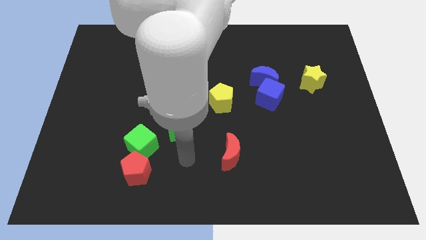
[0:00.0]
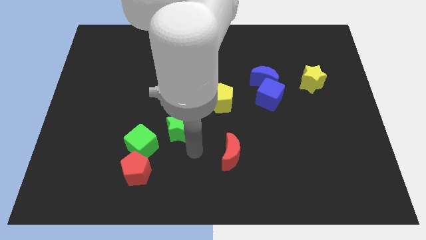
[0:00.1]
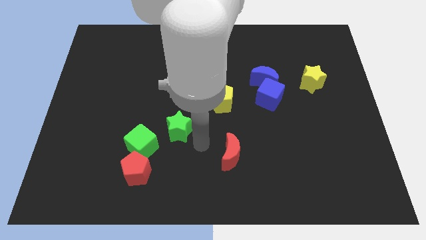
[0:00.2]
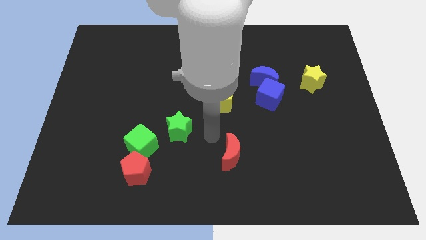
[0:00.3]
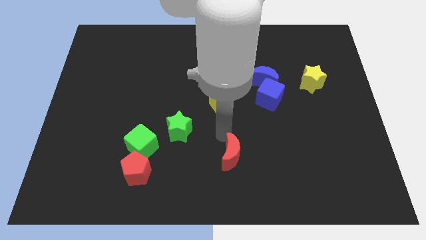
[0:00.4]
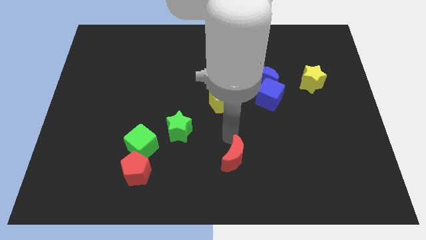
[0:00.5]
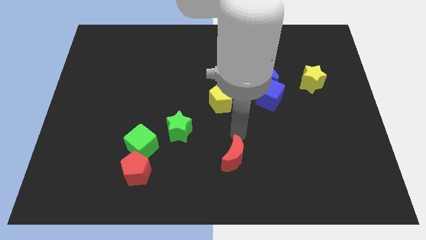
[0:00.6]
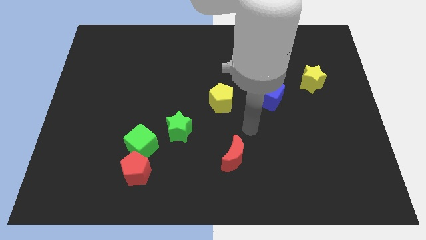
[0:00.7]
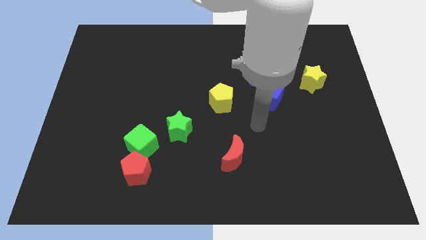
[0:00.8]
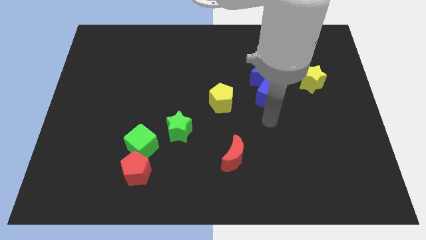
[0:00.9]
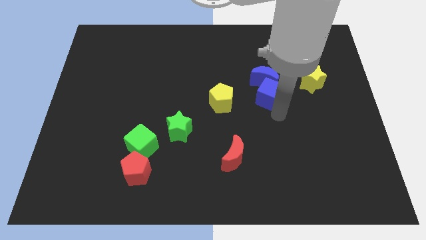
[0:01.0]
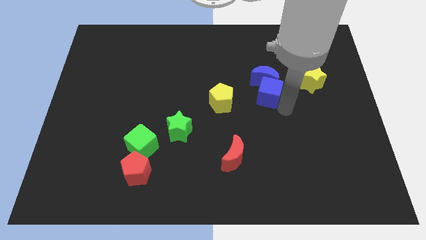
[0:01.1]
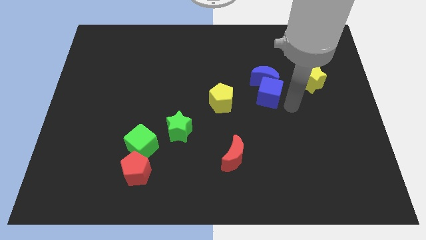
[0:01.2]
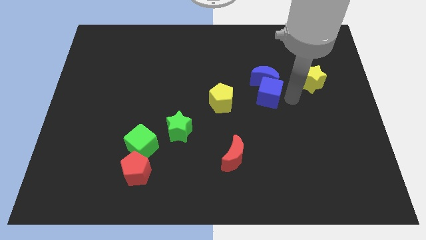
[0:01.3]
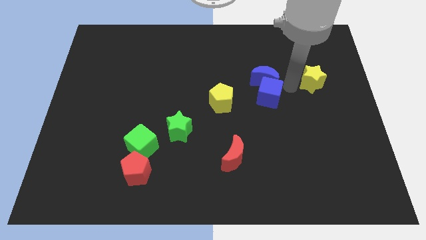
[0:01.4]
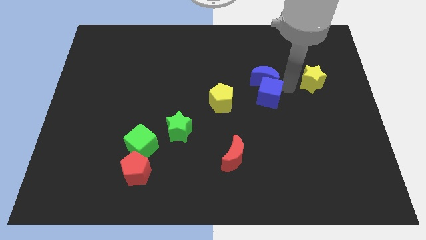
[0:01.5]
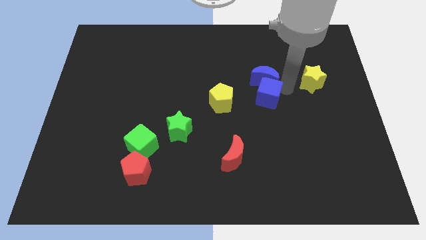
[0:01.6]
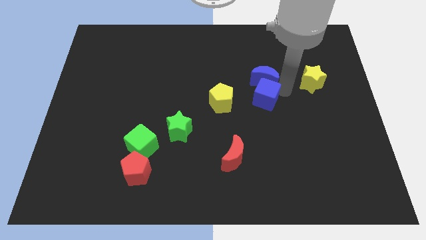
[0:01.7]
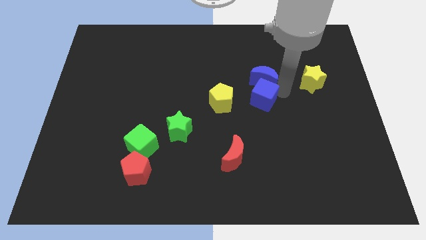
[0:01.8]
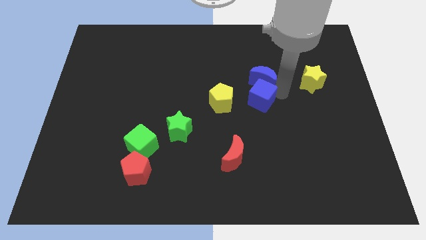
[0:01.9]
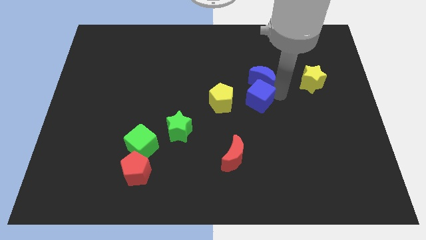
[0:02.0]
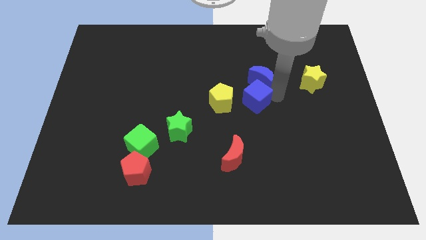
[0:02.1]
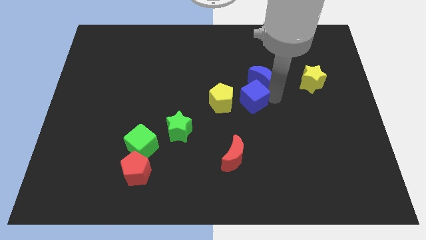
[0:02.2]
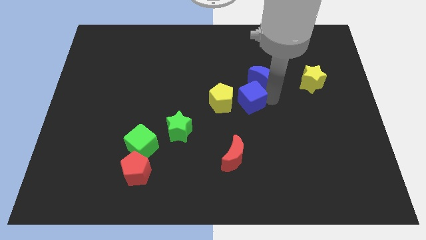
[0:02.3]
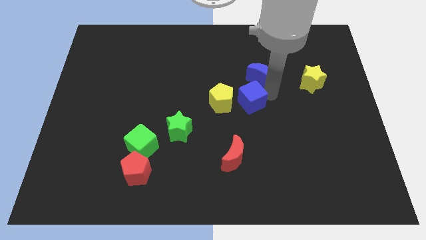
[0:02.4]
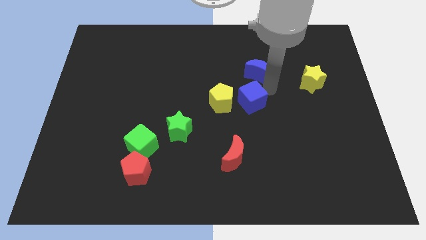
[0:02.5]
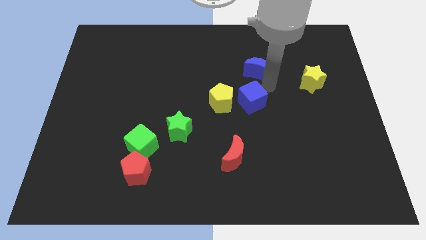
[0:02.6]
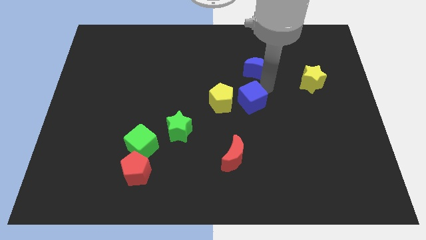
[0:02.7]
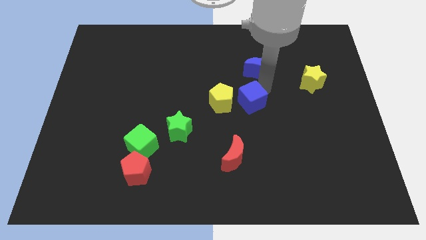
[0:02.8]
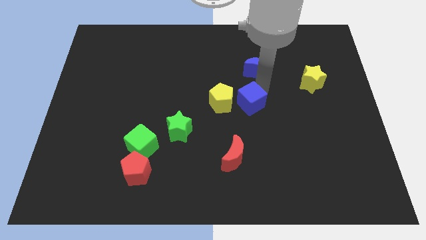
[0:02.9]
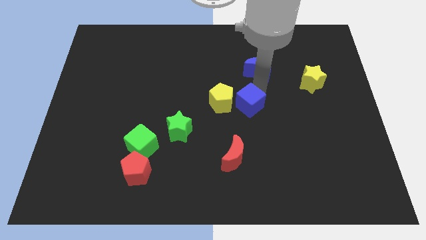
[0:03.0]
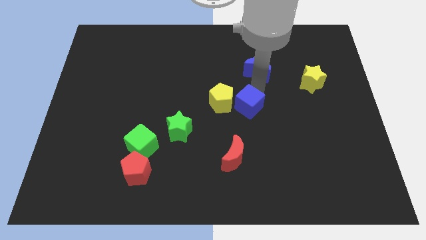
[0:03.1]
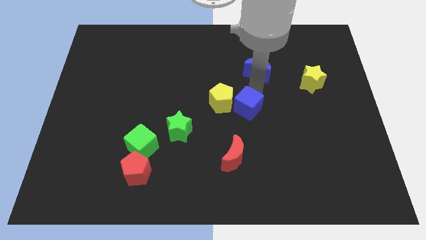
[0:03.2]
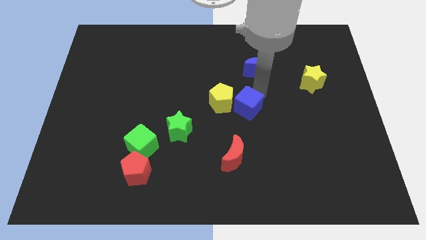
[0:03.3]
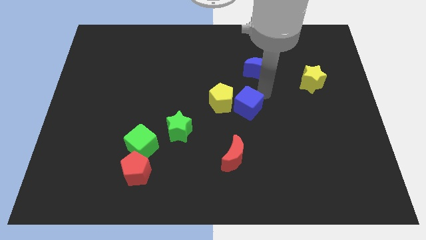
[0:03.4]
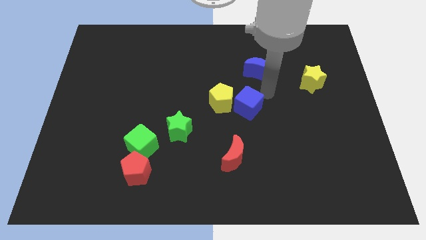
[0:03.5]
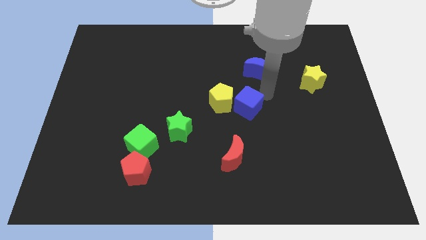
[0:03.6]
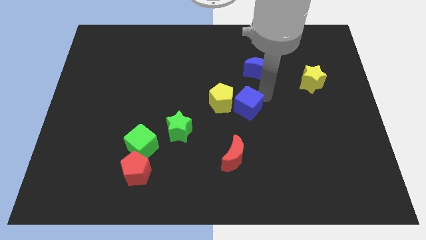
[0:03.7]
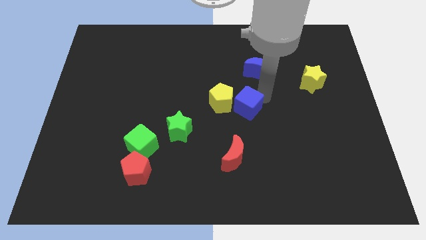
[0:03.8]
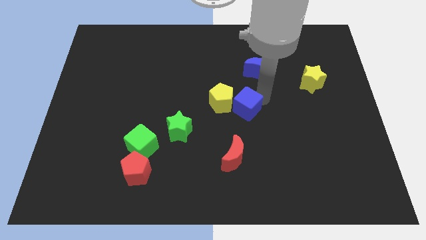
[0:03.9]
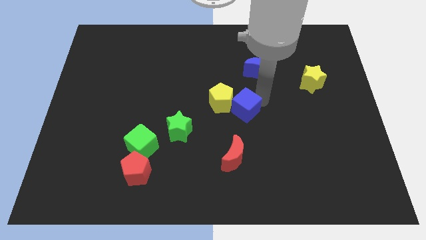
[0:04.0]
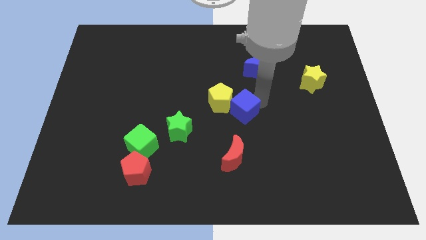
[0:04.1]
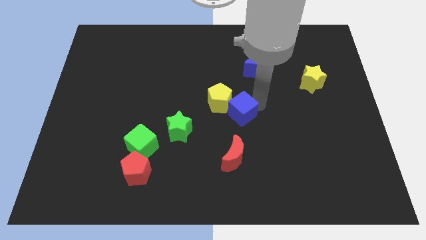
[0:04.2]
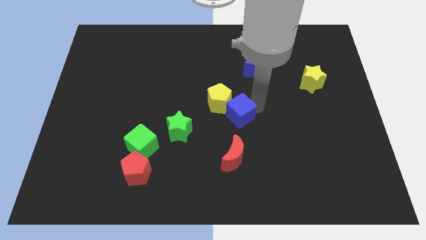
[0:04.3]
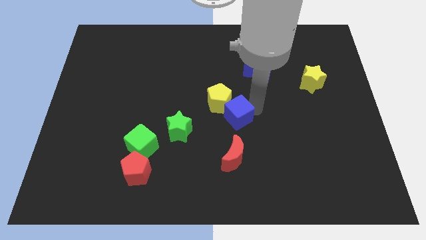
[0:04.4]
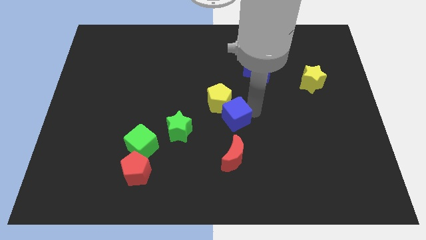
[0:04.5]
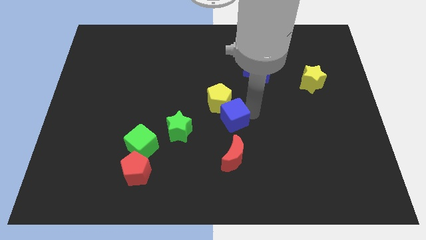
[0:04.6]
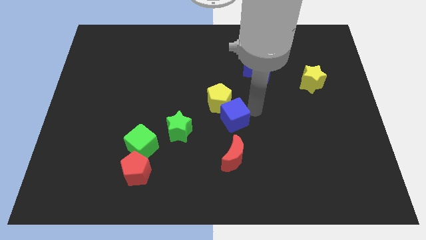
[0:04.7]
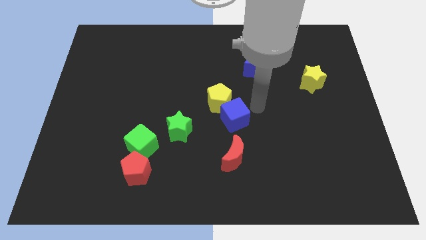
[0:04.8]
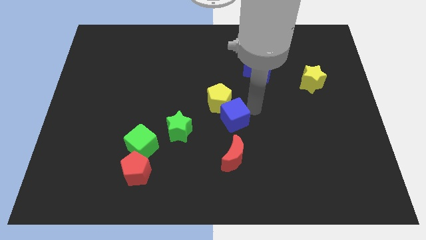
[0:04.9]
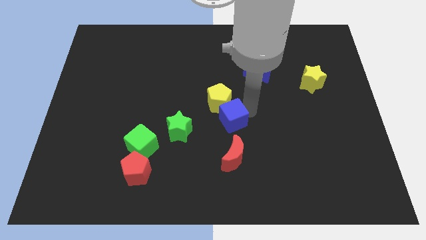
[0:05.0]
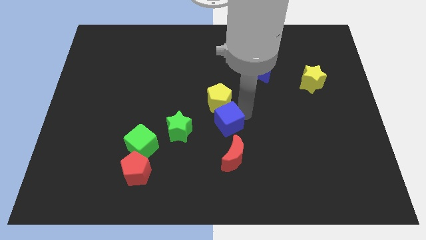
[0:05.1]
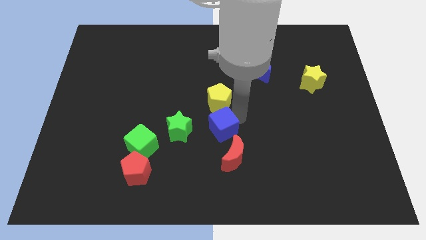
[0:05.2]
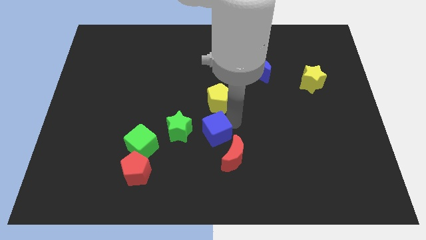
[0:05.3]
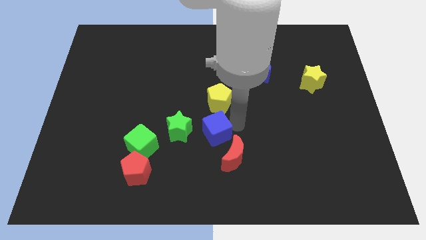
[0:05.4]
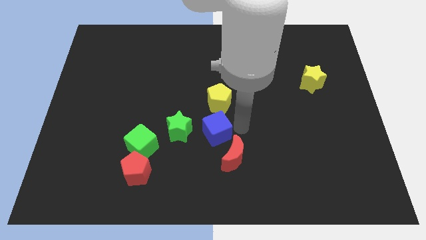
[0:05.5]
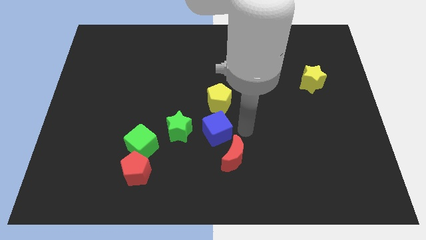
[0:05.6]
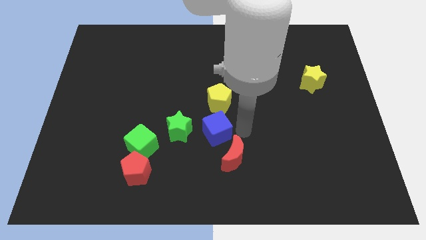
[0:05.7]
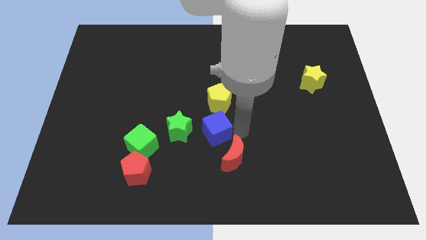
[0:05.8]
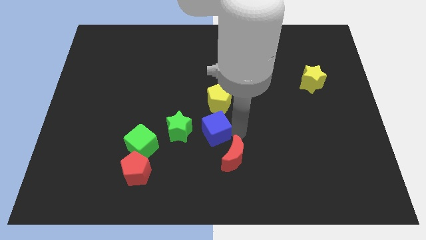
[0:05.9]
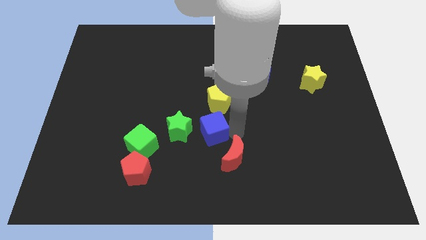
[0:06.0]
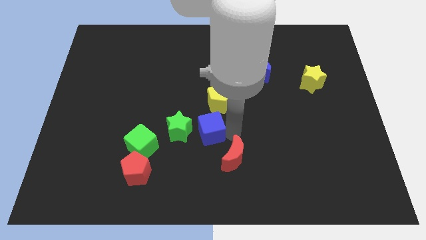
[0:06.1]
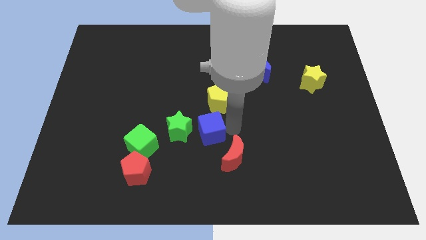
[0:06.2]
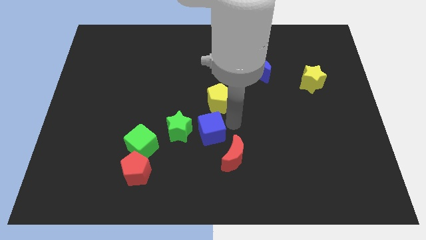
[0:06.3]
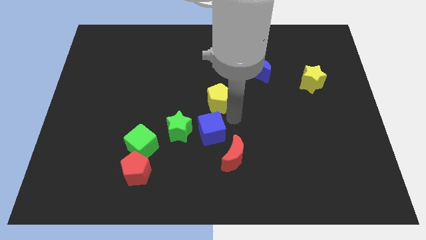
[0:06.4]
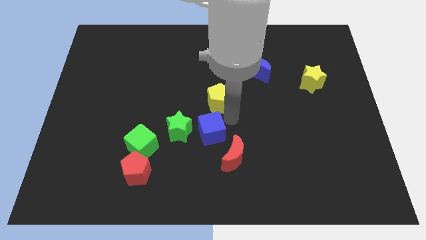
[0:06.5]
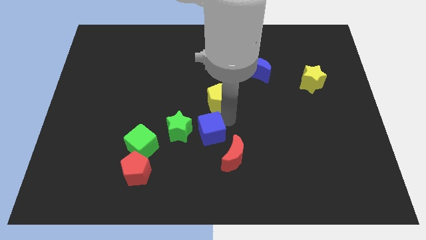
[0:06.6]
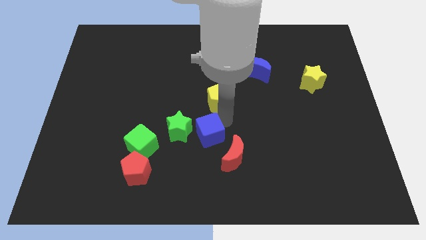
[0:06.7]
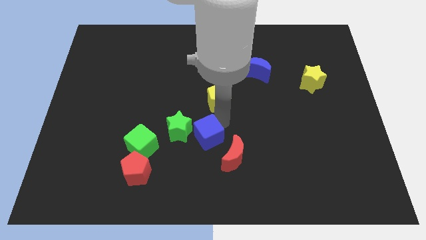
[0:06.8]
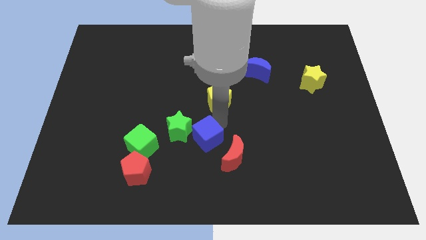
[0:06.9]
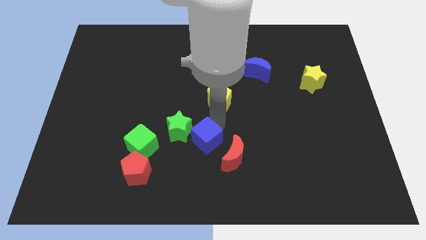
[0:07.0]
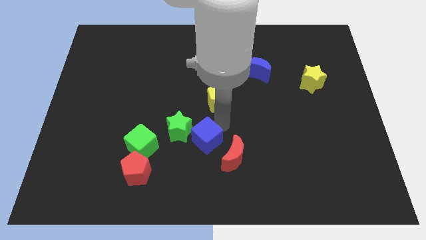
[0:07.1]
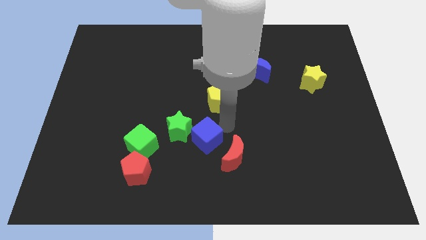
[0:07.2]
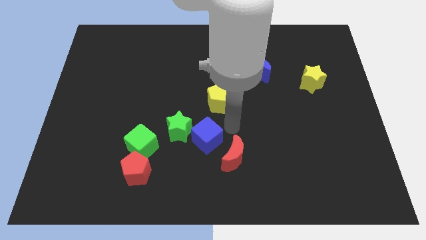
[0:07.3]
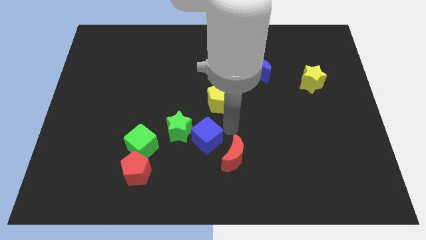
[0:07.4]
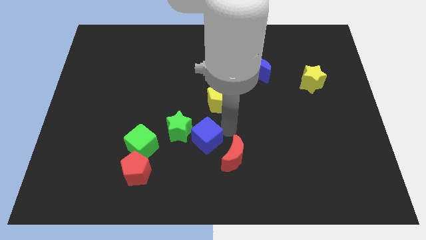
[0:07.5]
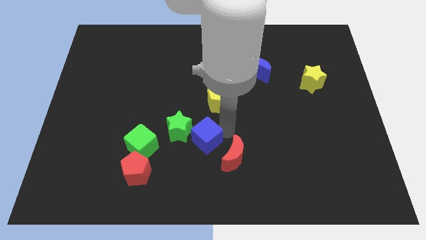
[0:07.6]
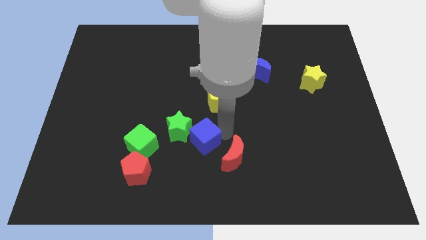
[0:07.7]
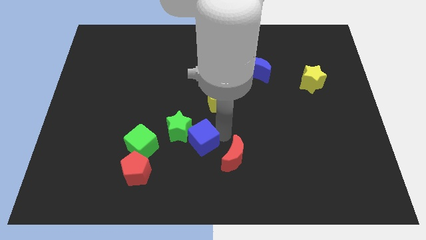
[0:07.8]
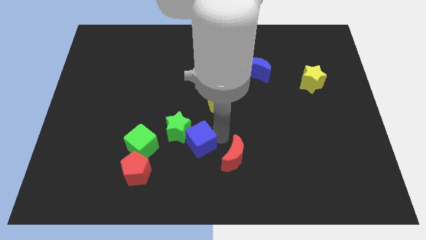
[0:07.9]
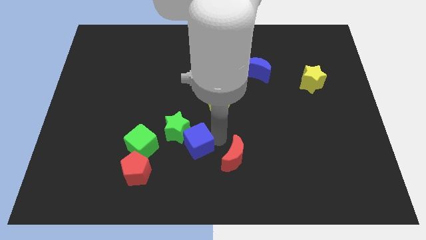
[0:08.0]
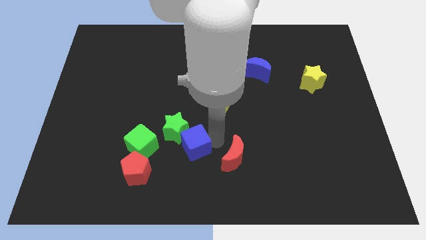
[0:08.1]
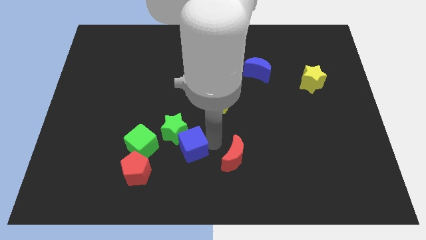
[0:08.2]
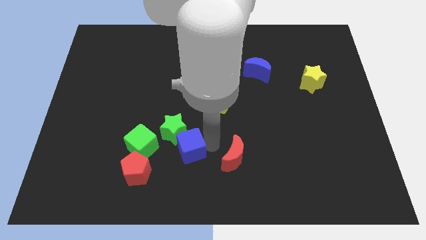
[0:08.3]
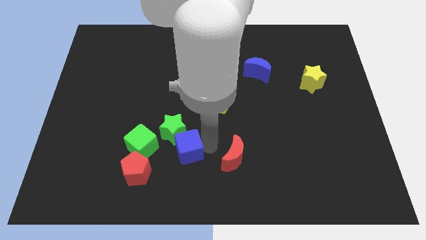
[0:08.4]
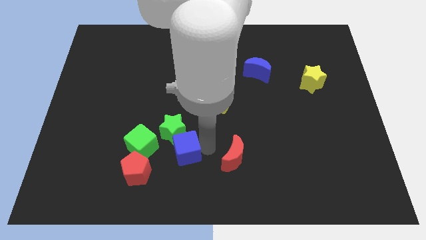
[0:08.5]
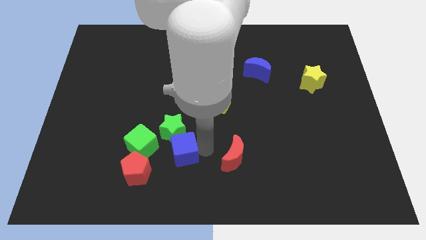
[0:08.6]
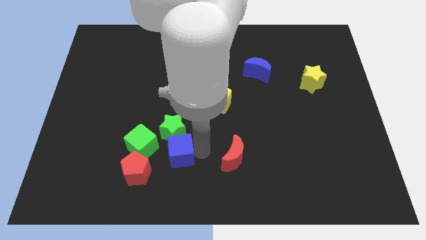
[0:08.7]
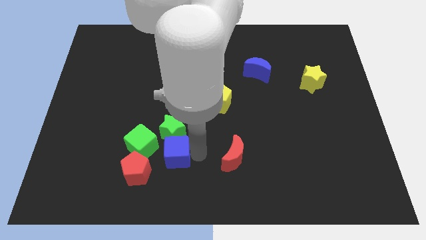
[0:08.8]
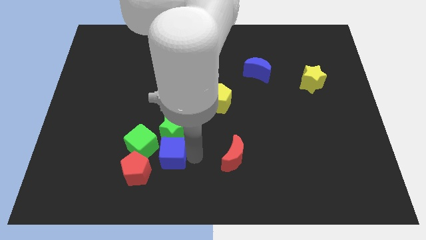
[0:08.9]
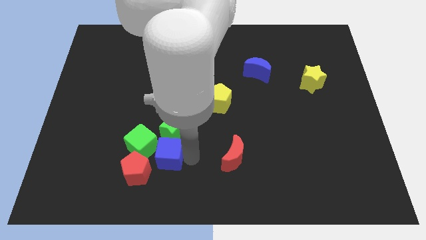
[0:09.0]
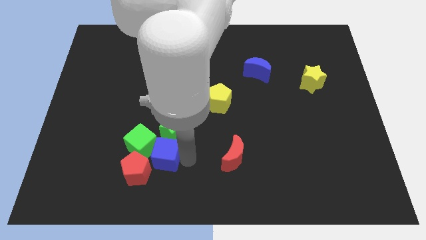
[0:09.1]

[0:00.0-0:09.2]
push the blue cube next to the green cube
